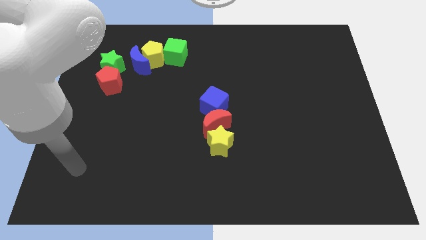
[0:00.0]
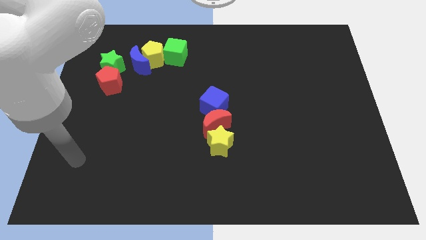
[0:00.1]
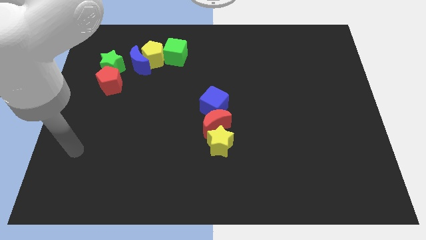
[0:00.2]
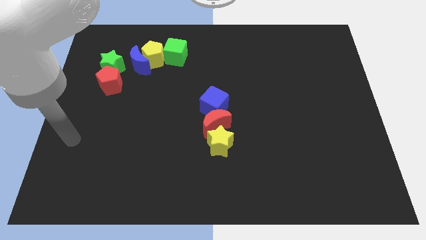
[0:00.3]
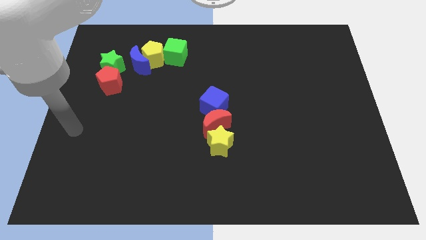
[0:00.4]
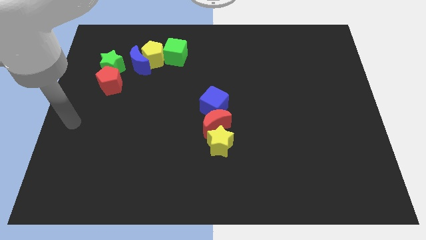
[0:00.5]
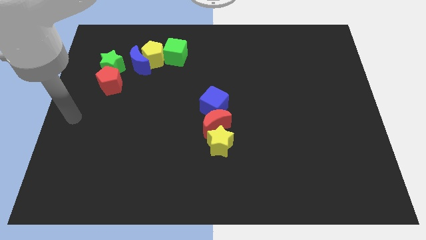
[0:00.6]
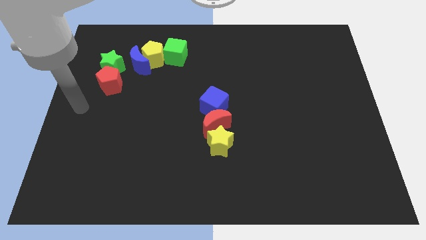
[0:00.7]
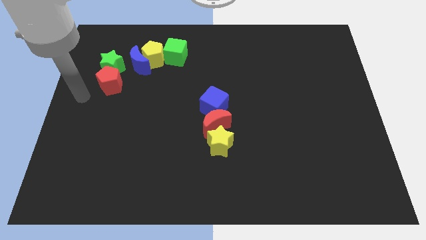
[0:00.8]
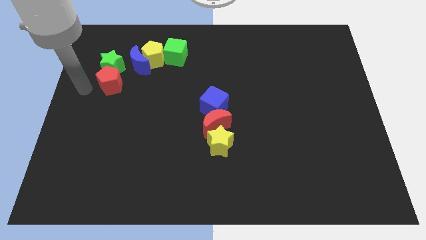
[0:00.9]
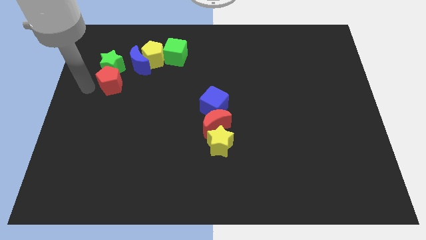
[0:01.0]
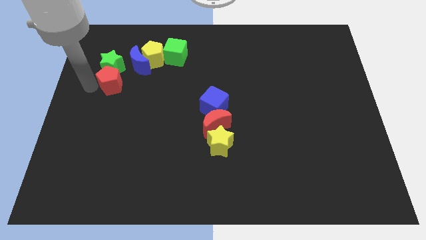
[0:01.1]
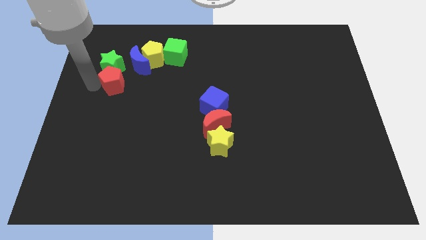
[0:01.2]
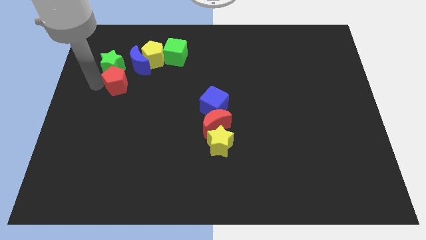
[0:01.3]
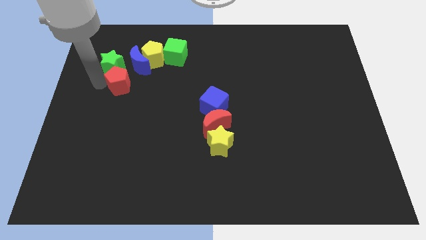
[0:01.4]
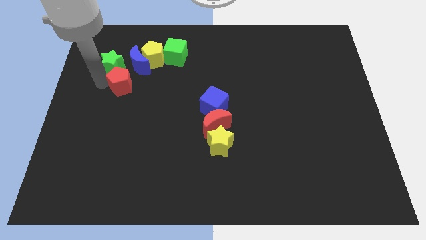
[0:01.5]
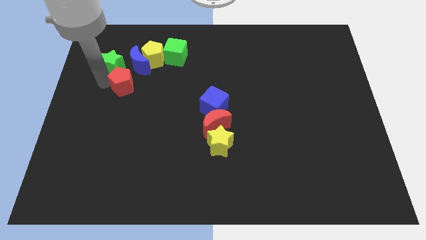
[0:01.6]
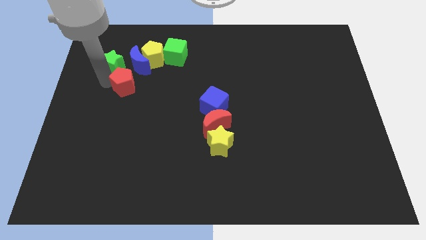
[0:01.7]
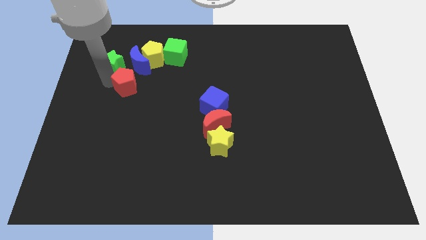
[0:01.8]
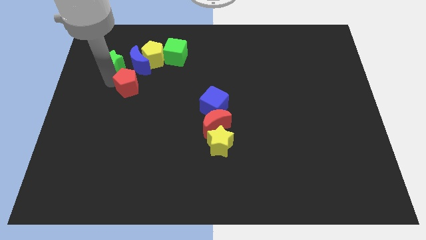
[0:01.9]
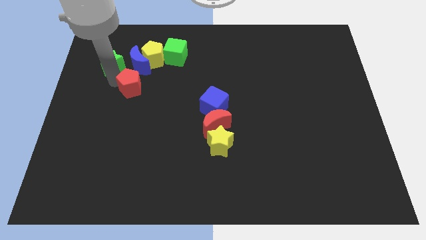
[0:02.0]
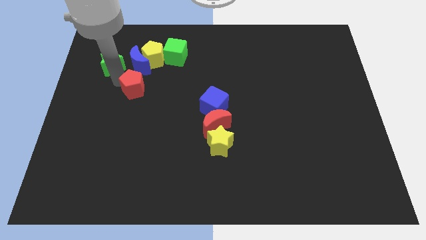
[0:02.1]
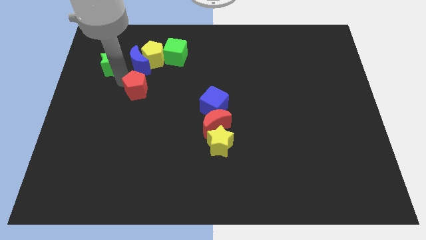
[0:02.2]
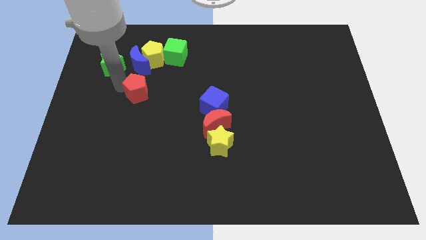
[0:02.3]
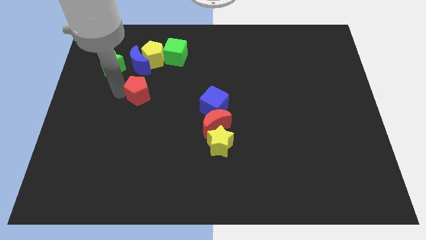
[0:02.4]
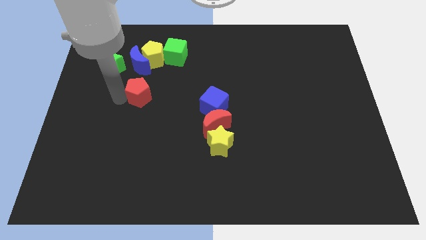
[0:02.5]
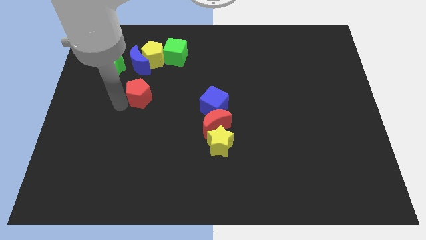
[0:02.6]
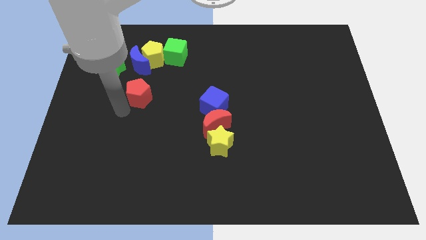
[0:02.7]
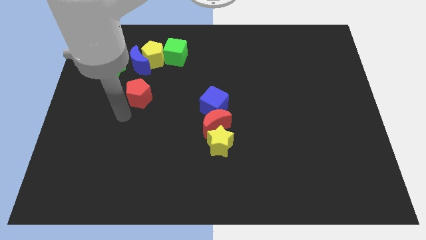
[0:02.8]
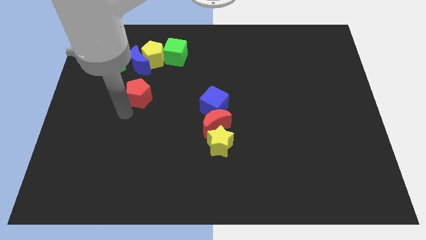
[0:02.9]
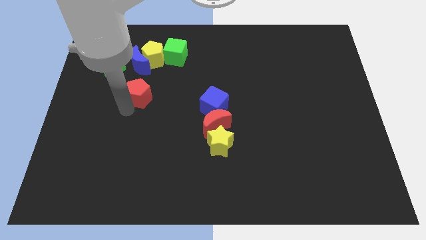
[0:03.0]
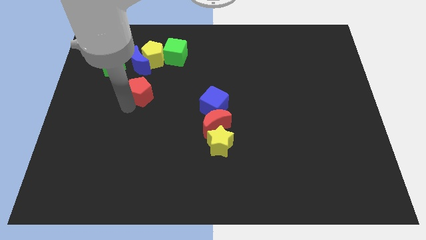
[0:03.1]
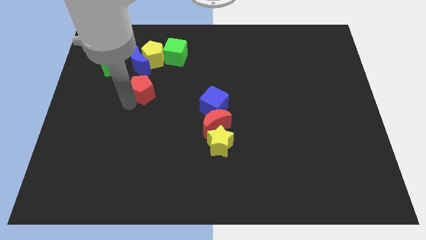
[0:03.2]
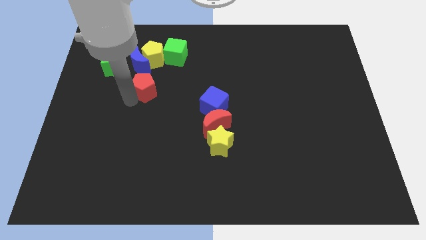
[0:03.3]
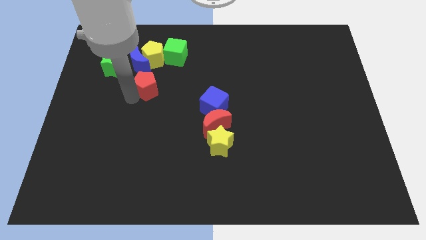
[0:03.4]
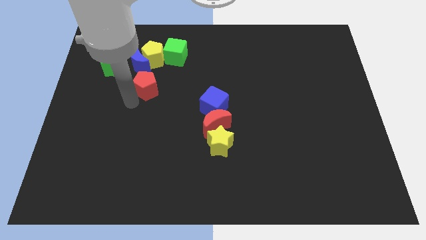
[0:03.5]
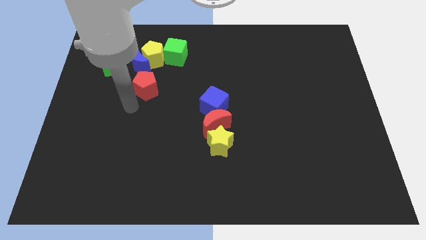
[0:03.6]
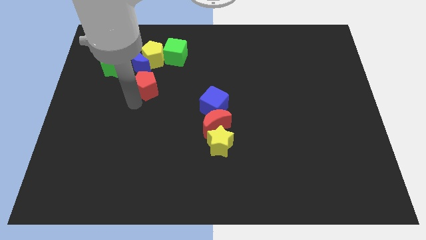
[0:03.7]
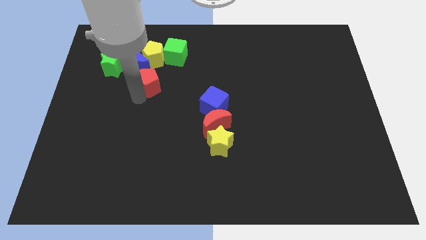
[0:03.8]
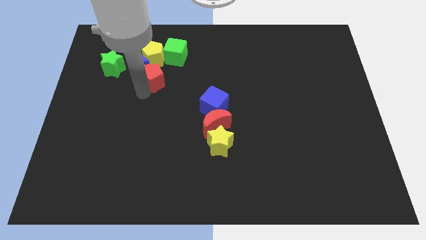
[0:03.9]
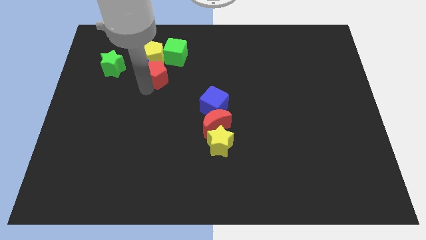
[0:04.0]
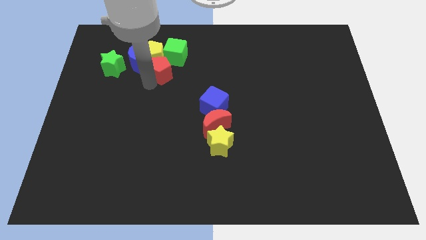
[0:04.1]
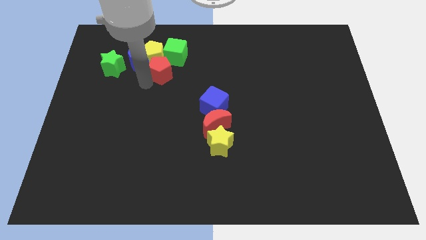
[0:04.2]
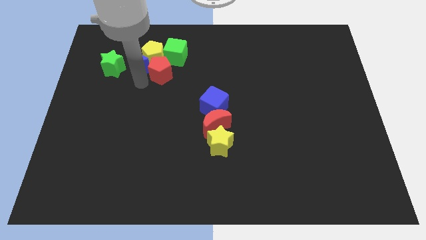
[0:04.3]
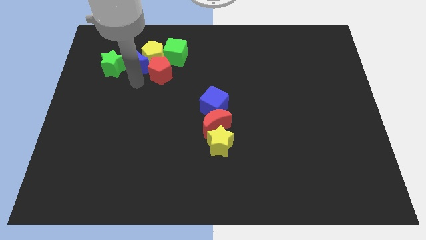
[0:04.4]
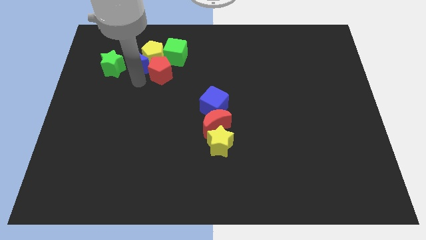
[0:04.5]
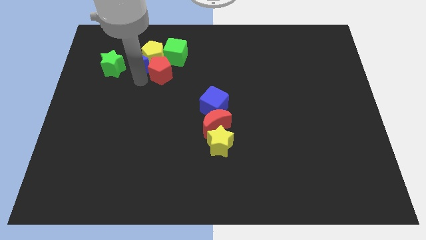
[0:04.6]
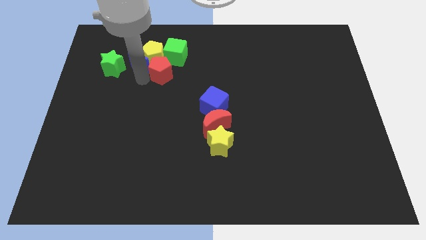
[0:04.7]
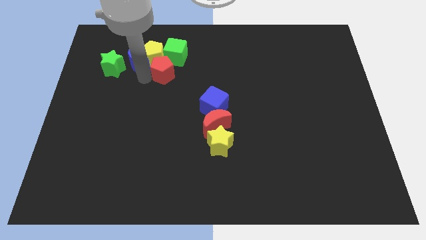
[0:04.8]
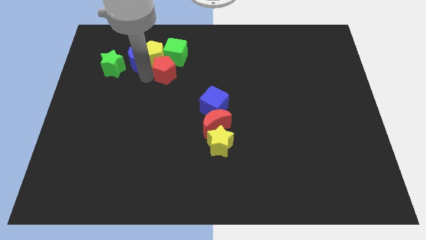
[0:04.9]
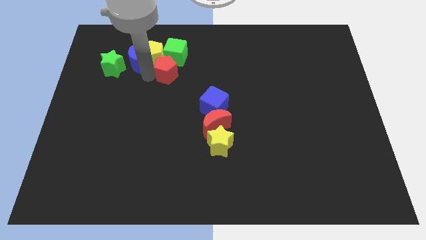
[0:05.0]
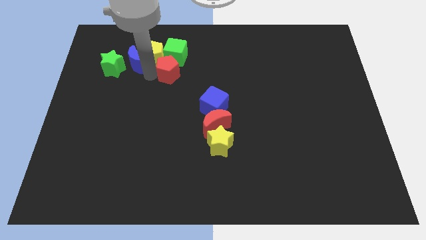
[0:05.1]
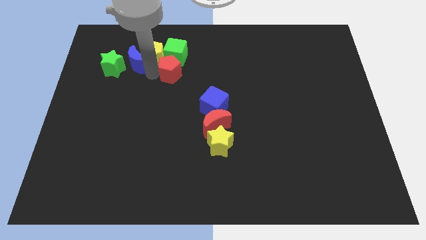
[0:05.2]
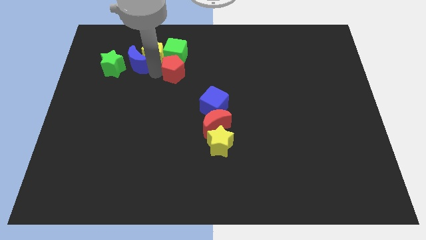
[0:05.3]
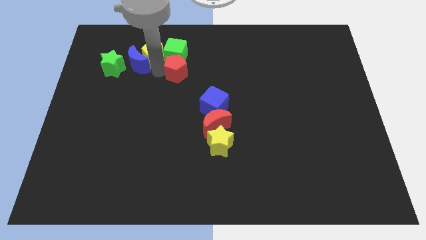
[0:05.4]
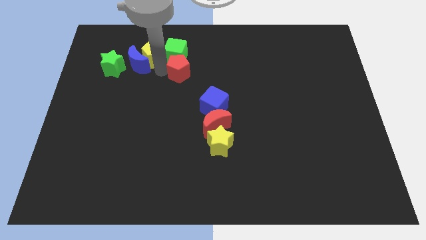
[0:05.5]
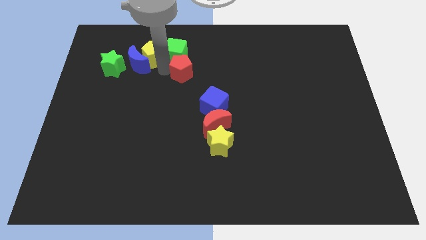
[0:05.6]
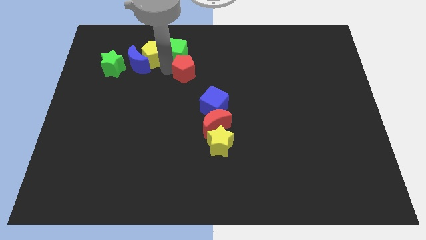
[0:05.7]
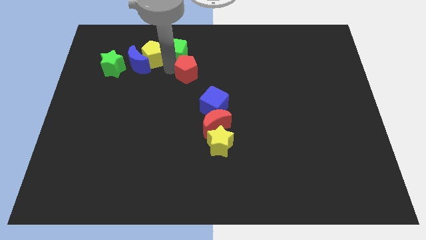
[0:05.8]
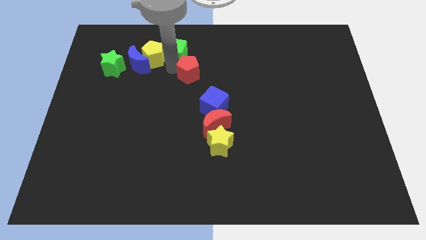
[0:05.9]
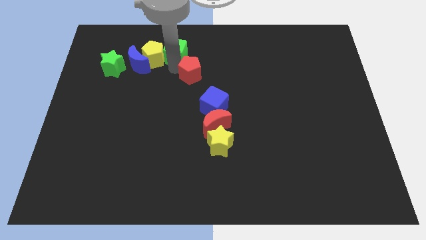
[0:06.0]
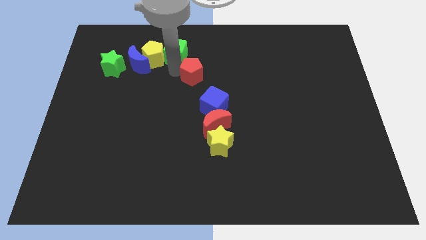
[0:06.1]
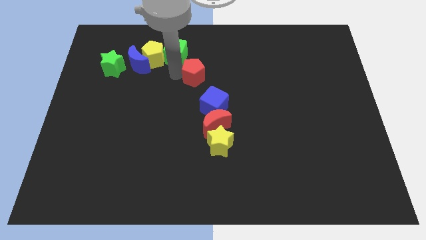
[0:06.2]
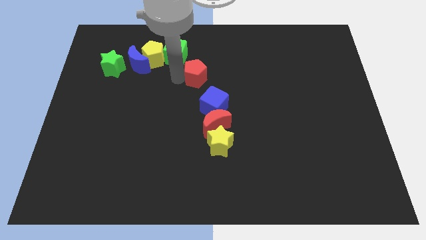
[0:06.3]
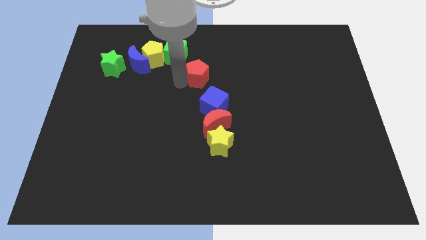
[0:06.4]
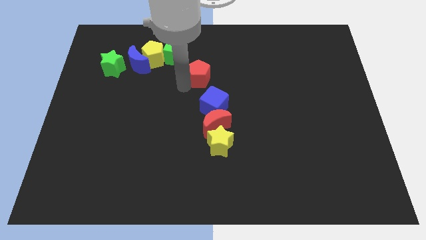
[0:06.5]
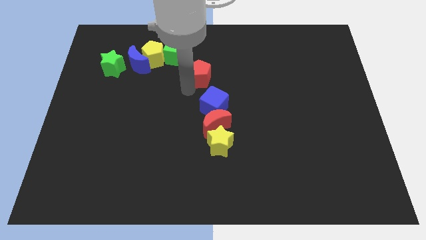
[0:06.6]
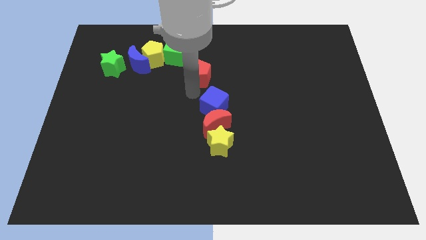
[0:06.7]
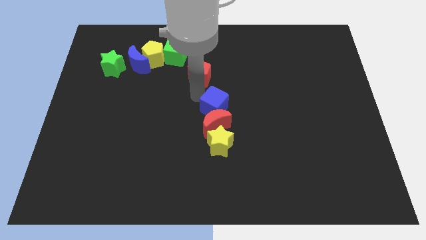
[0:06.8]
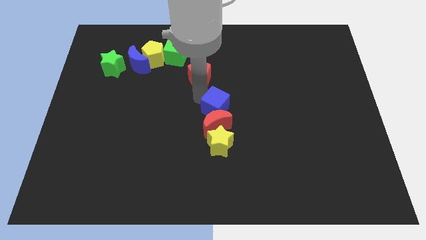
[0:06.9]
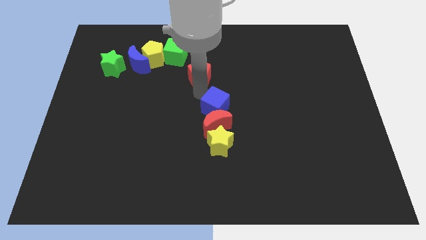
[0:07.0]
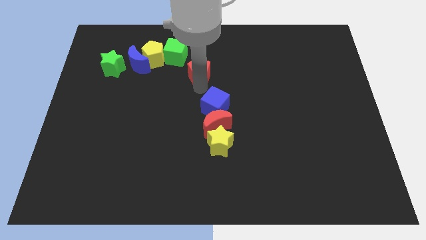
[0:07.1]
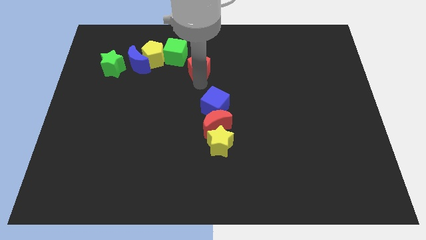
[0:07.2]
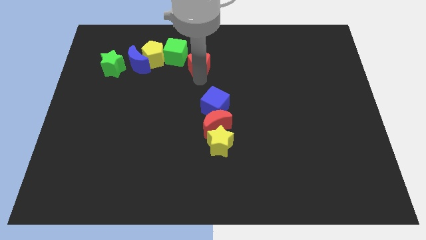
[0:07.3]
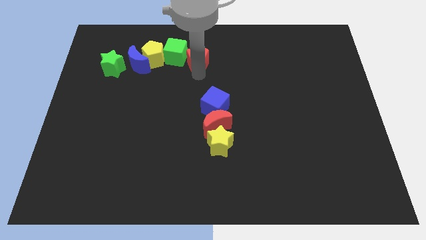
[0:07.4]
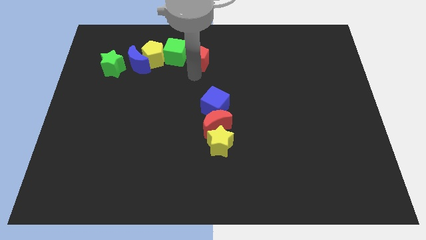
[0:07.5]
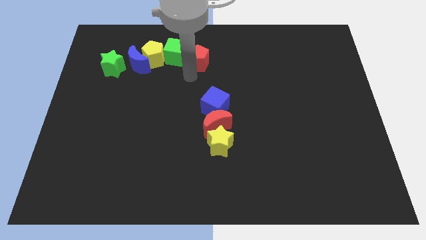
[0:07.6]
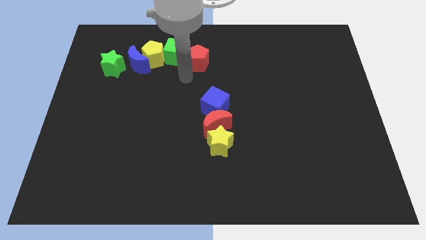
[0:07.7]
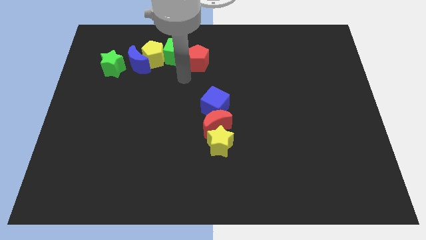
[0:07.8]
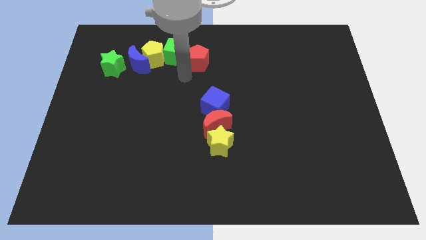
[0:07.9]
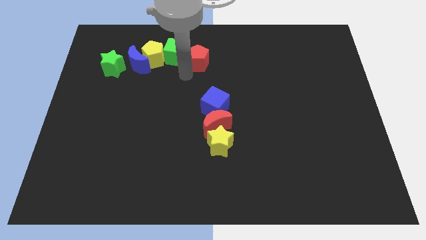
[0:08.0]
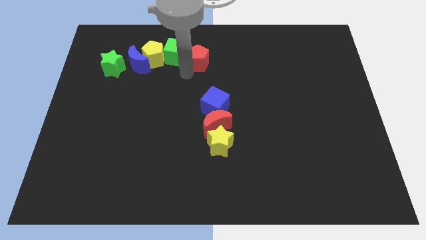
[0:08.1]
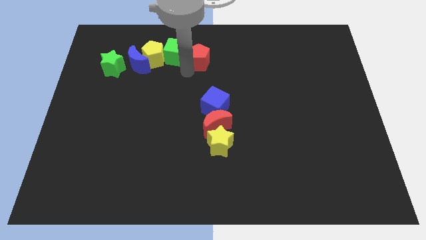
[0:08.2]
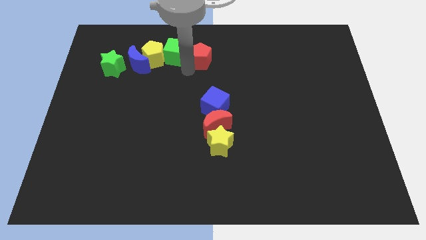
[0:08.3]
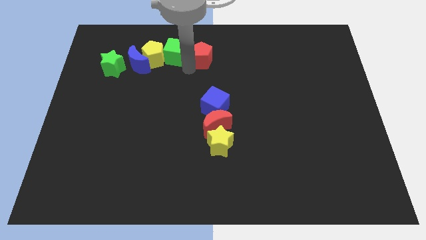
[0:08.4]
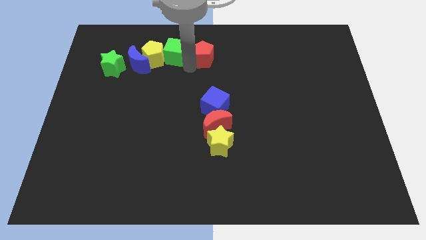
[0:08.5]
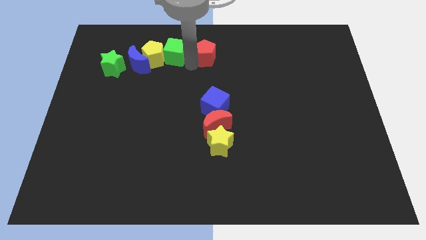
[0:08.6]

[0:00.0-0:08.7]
slide the red pentagon to the top side
